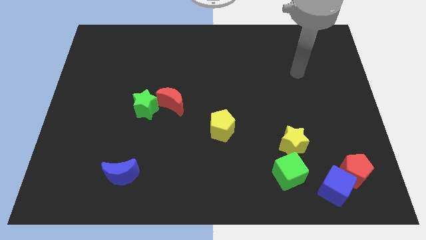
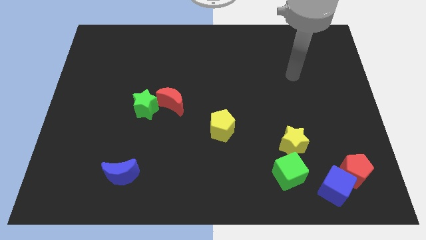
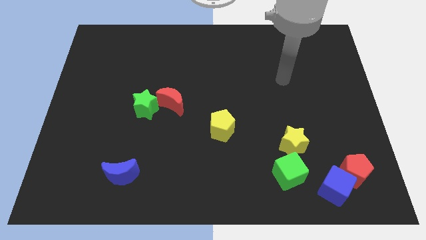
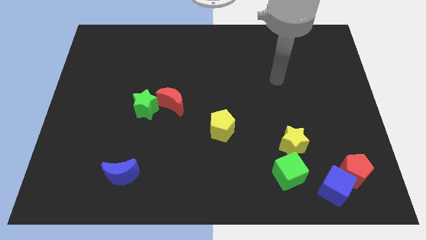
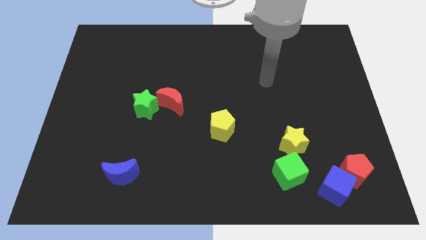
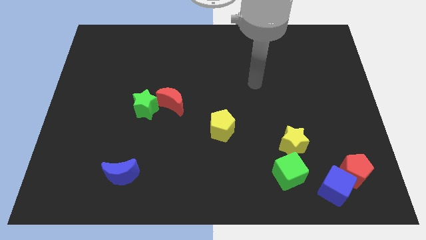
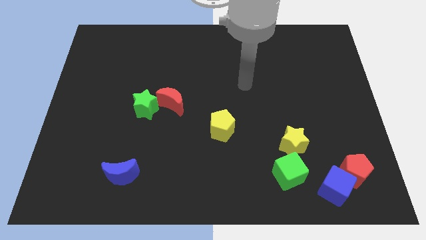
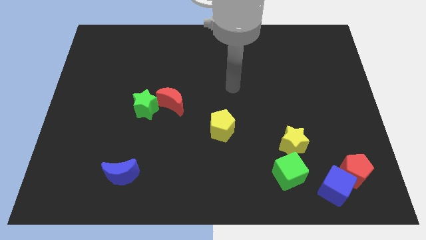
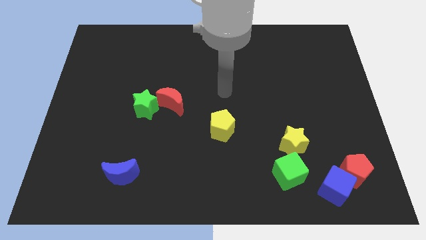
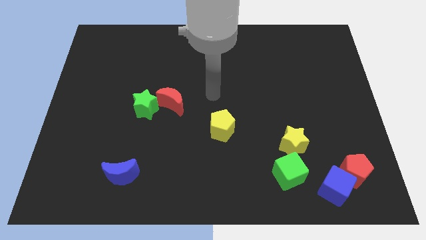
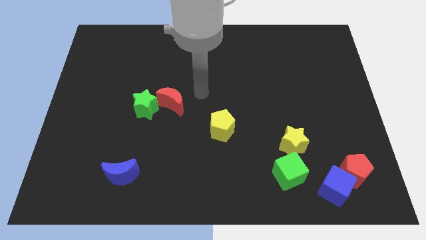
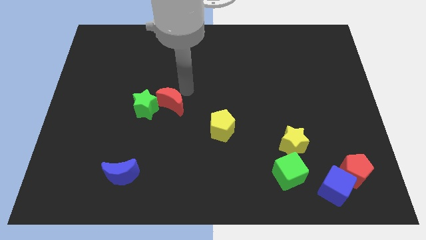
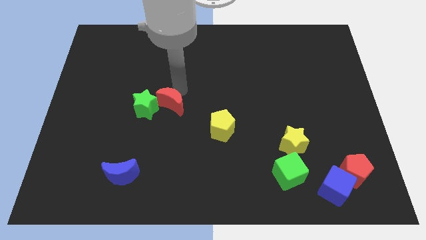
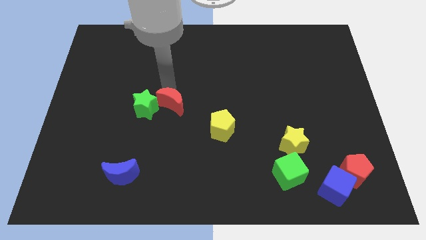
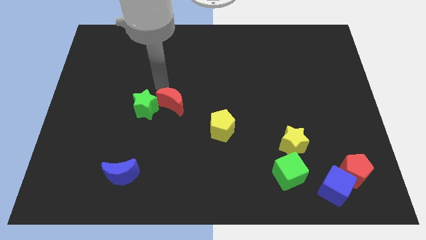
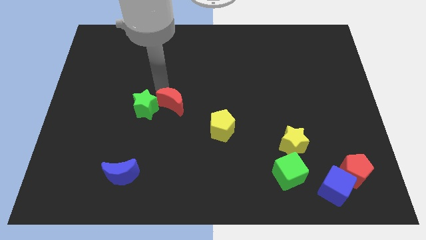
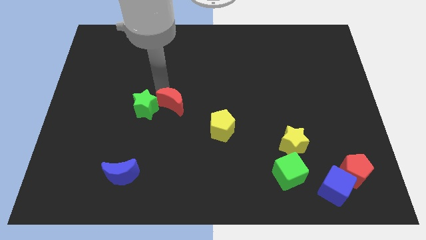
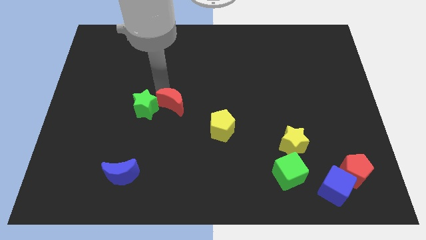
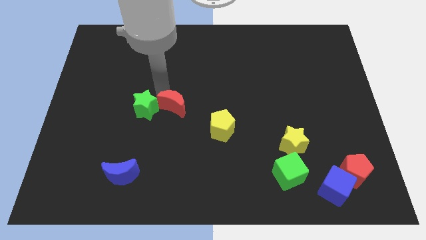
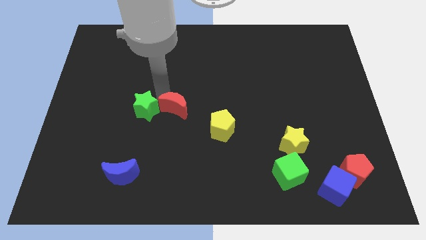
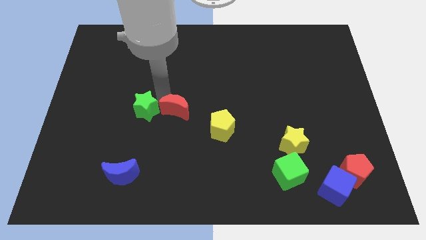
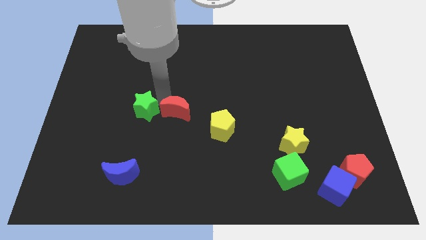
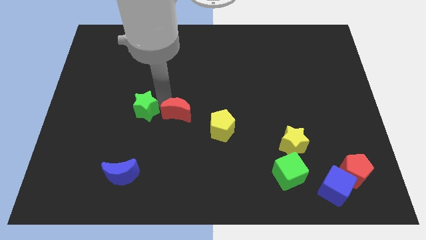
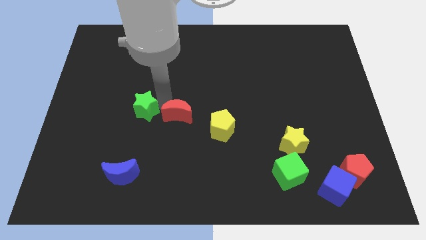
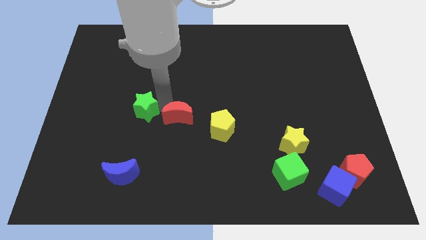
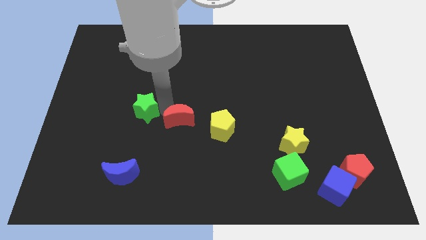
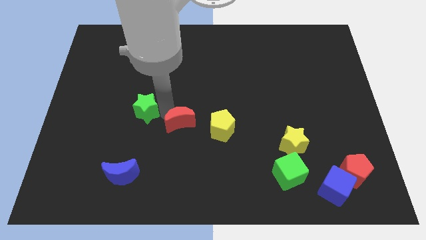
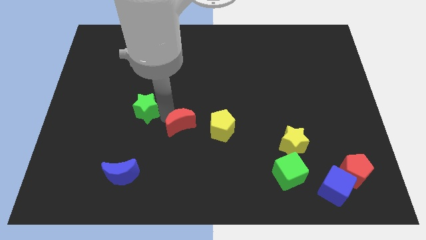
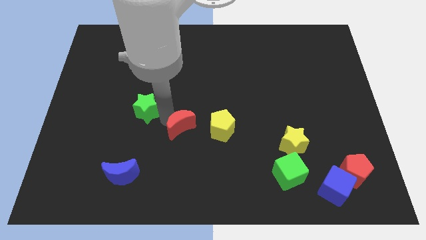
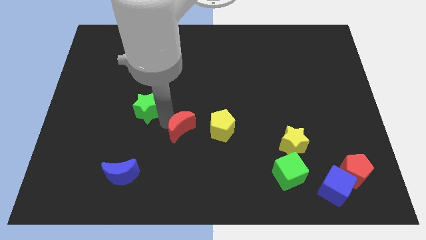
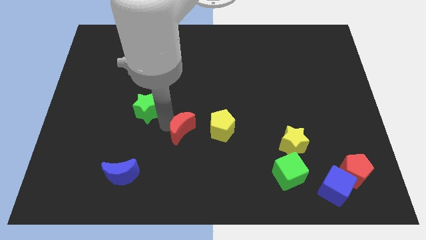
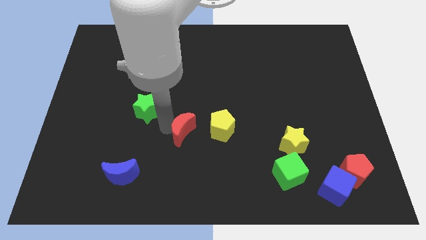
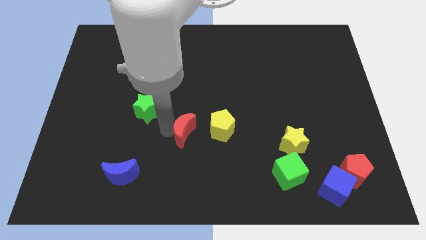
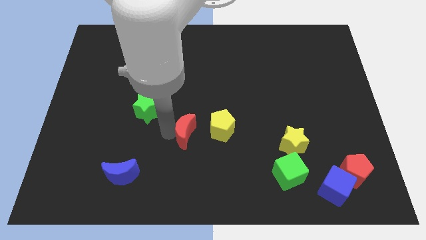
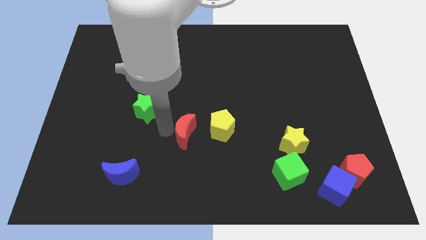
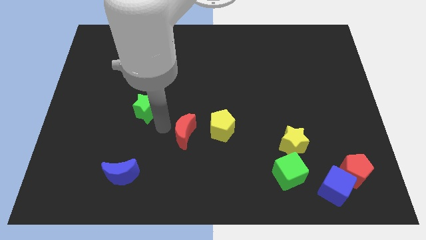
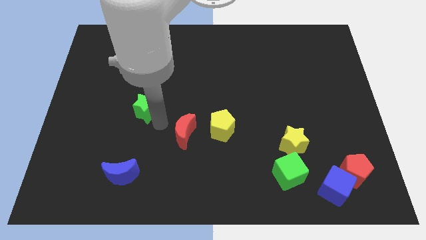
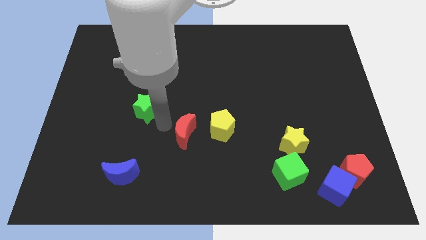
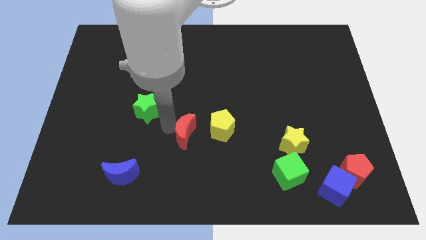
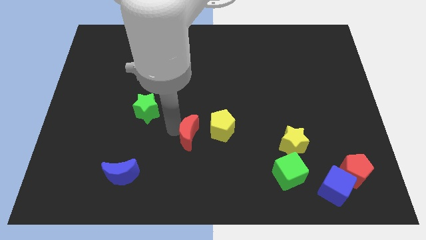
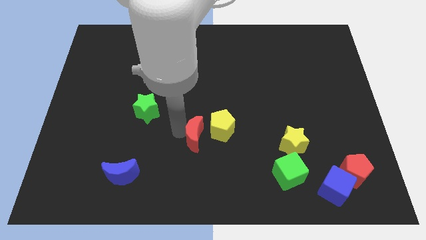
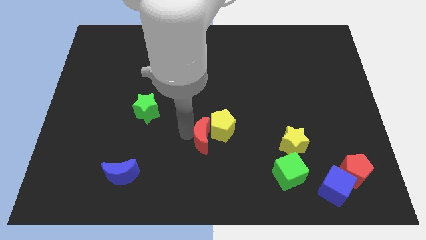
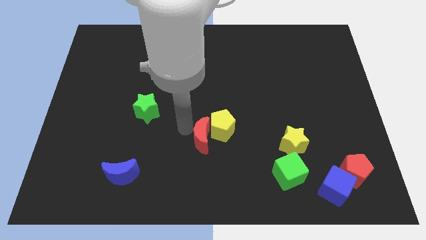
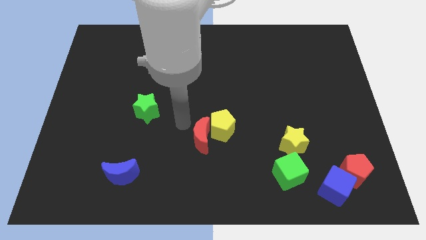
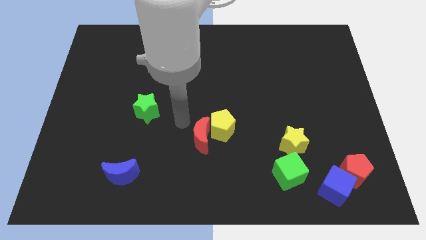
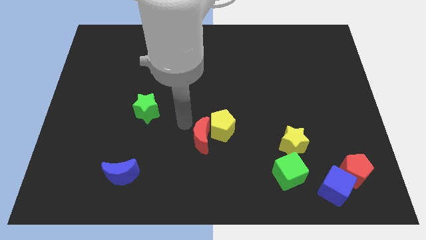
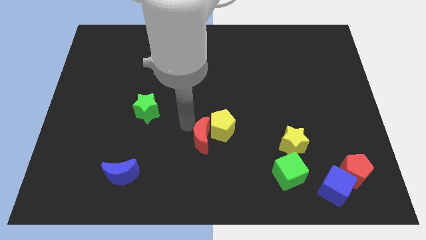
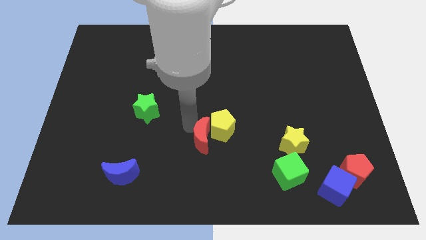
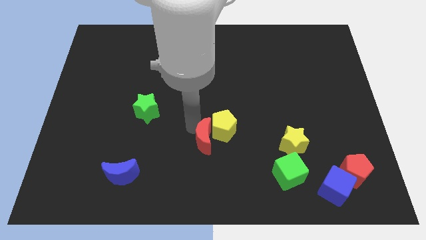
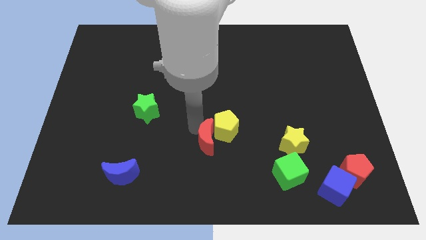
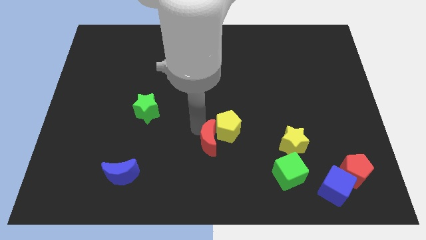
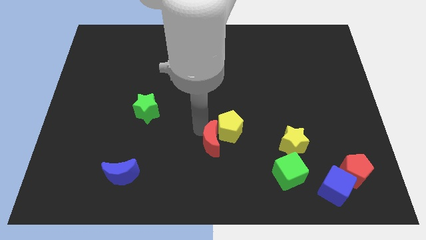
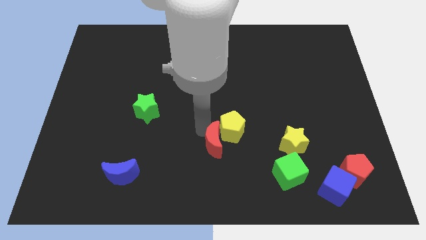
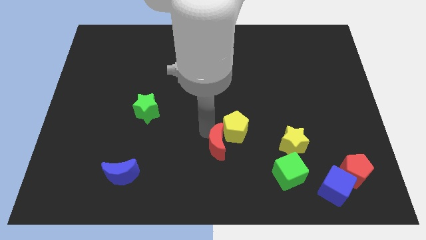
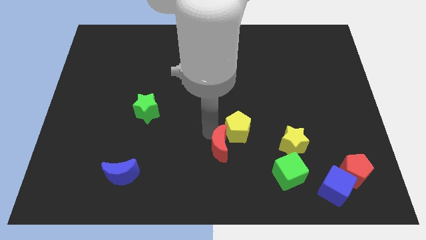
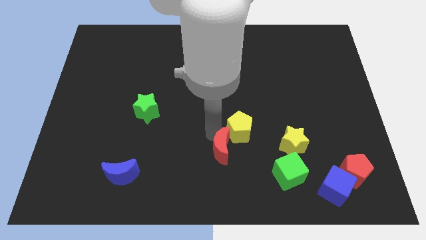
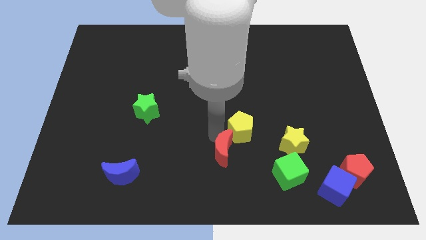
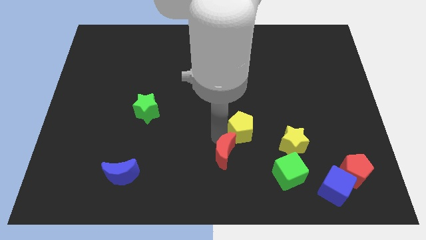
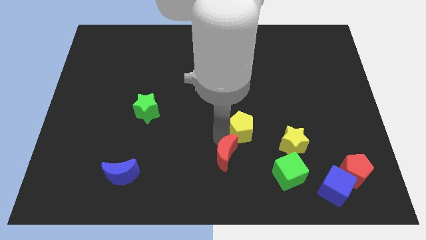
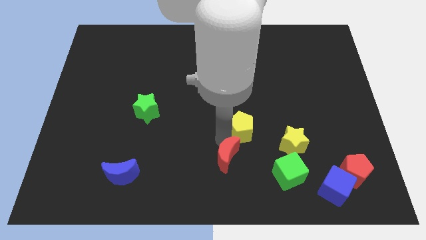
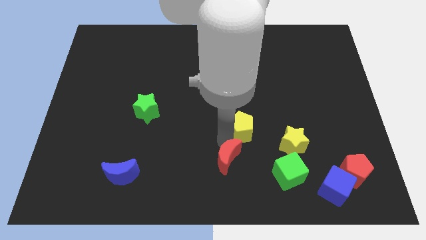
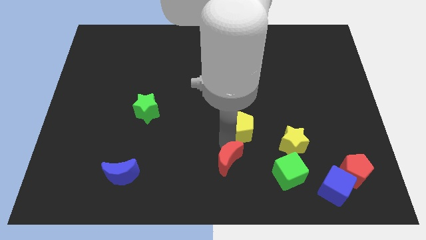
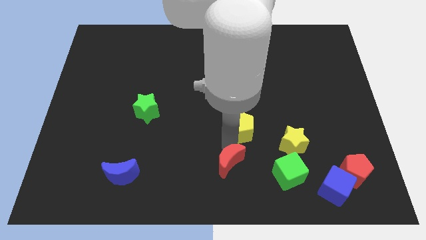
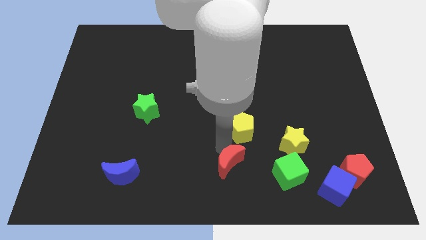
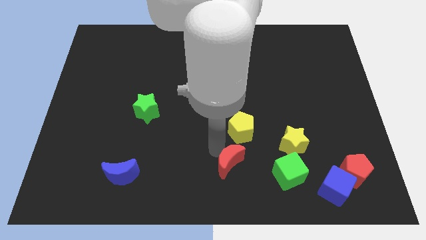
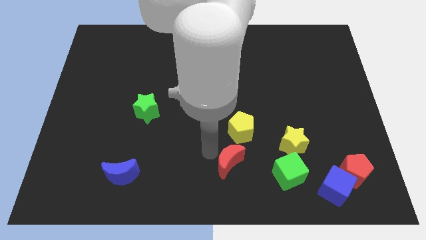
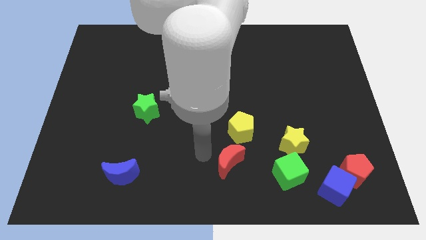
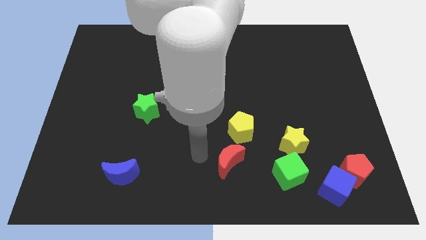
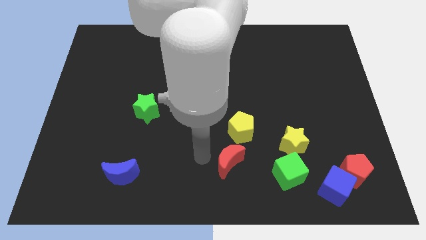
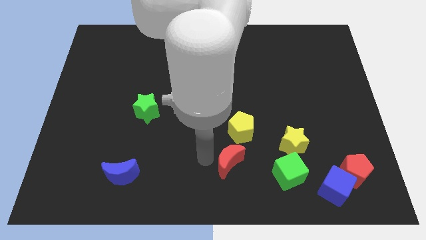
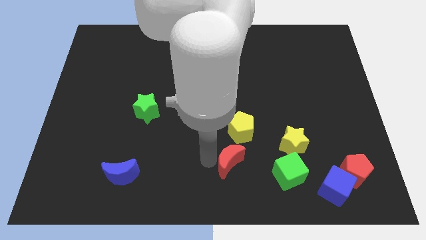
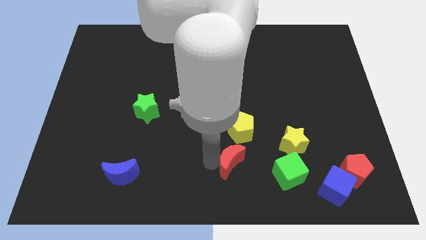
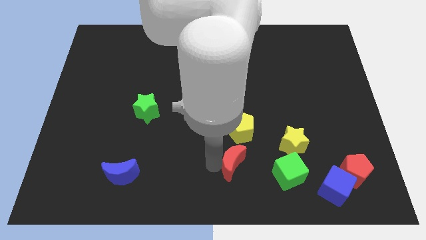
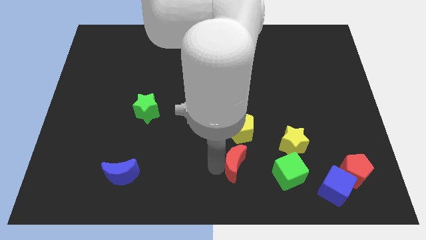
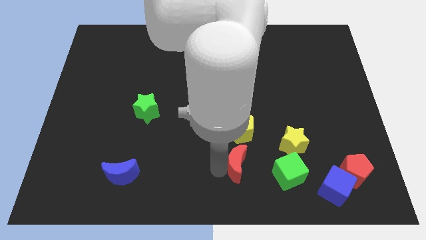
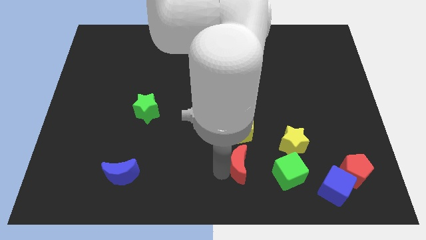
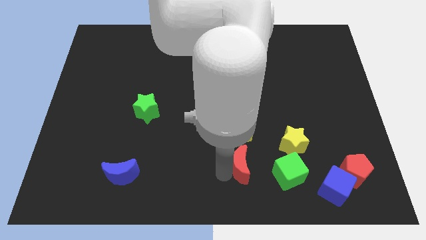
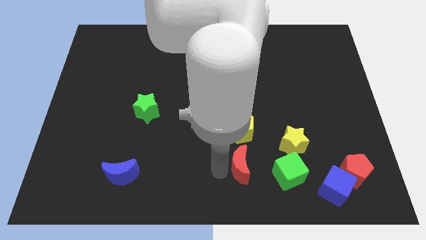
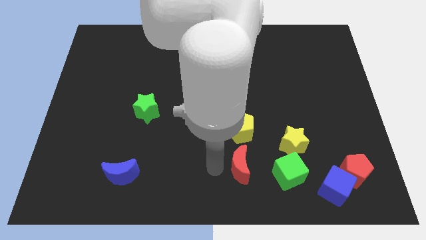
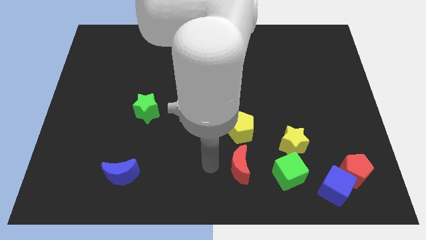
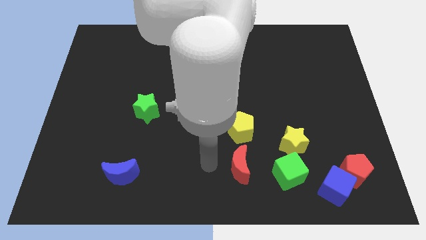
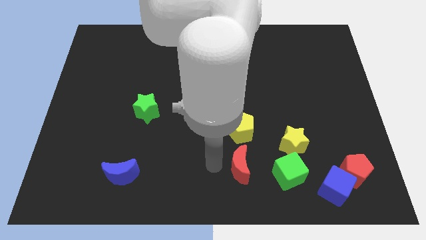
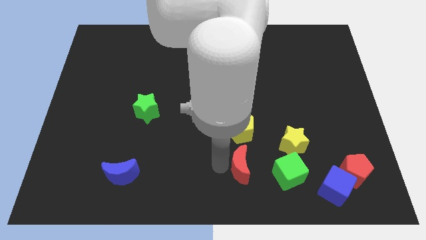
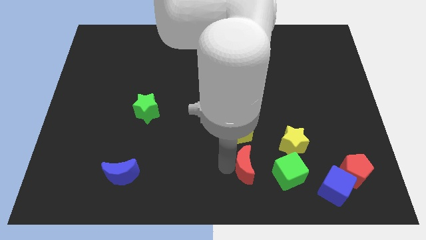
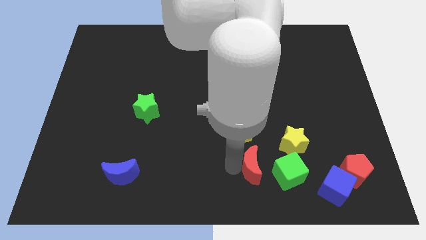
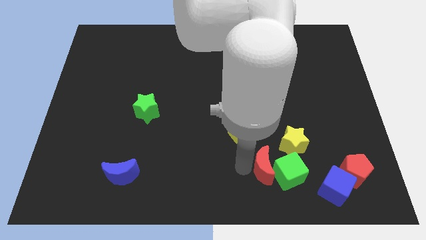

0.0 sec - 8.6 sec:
slide the red moon close to the green cube
